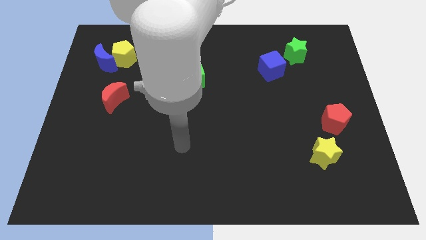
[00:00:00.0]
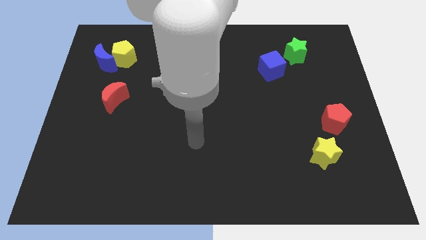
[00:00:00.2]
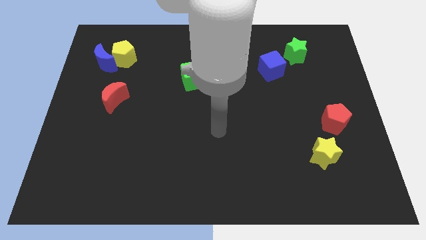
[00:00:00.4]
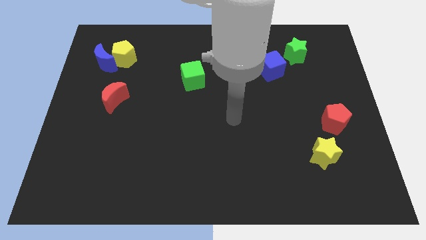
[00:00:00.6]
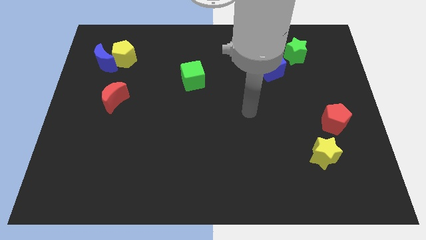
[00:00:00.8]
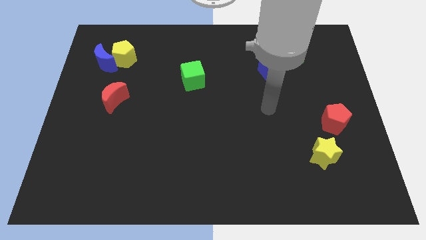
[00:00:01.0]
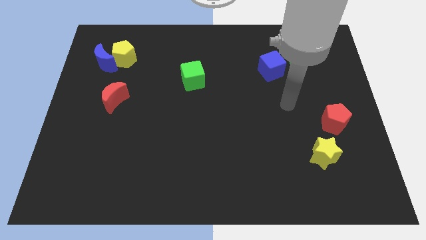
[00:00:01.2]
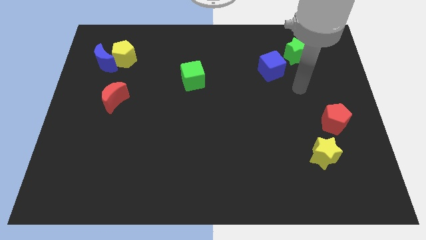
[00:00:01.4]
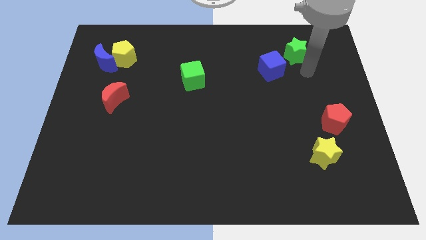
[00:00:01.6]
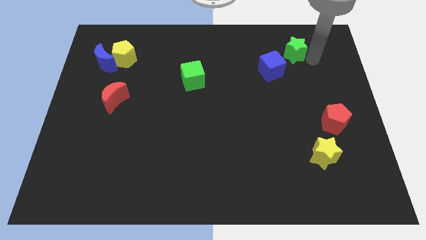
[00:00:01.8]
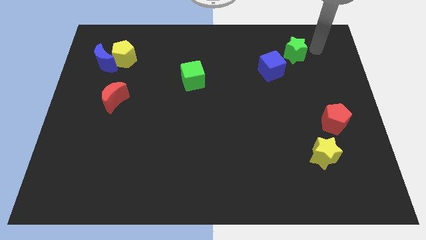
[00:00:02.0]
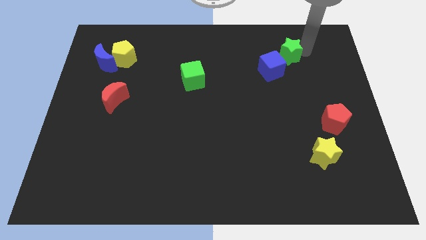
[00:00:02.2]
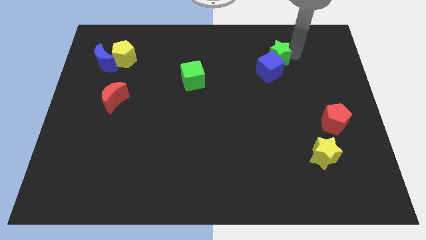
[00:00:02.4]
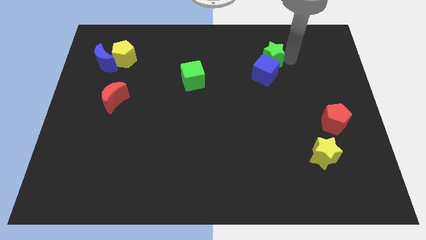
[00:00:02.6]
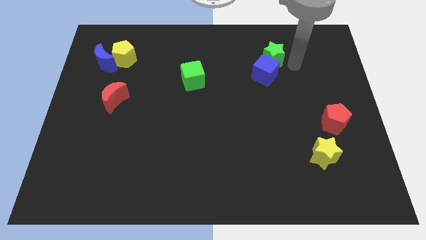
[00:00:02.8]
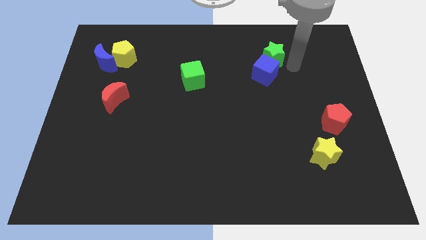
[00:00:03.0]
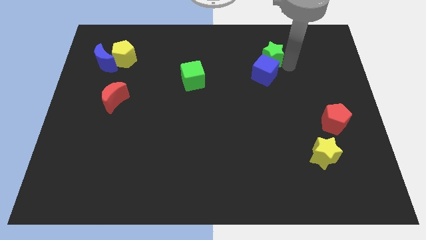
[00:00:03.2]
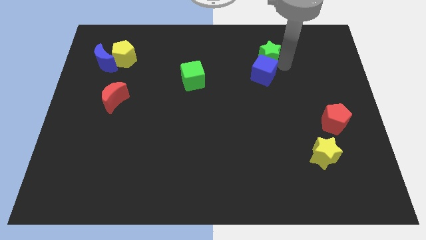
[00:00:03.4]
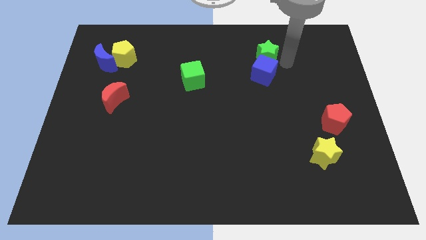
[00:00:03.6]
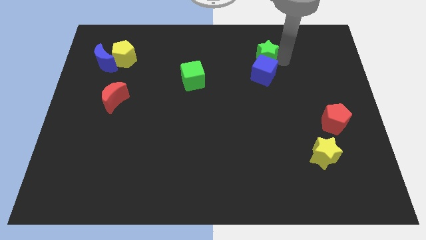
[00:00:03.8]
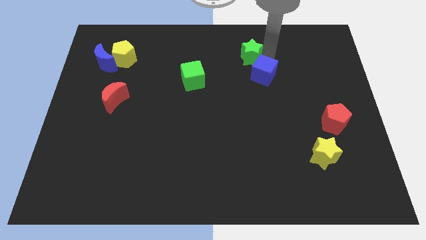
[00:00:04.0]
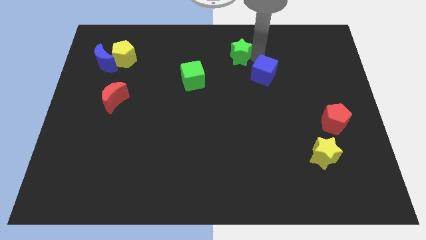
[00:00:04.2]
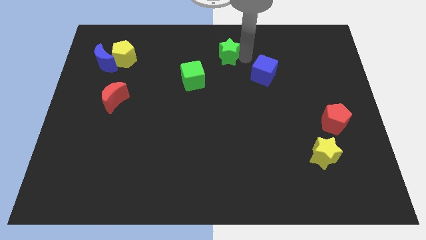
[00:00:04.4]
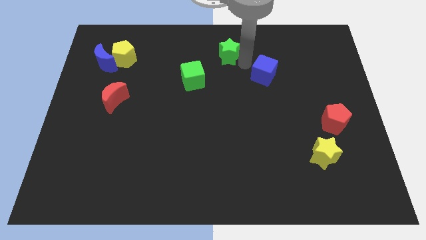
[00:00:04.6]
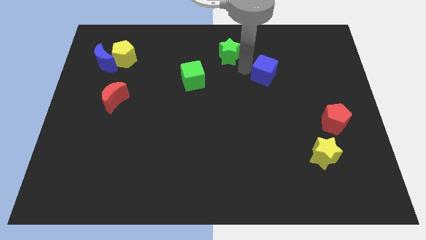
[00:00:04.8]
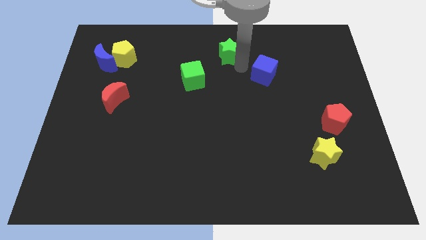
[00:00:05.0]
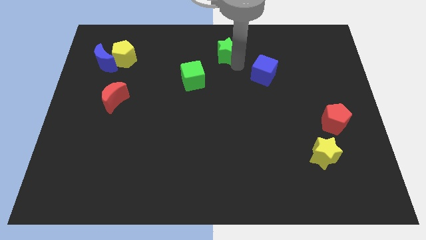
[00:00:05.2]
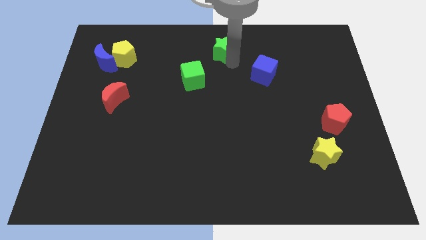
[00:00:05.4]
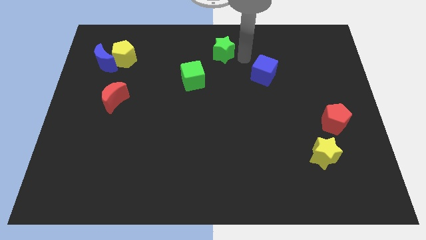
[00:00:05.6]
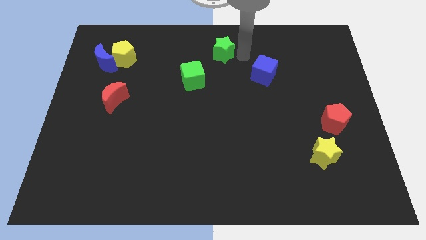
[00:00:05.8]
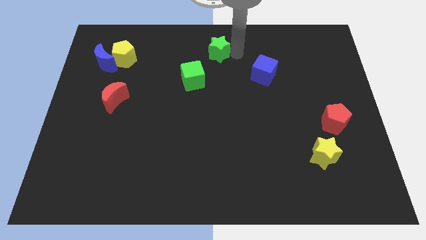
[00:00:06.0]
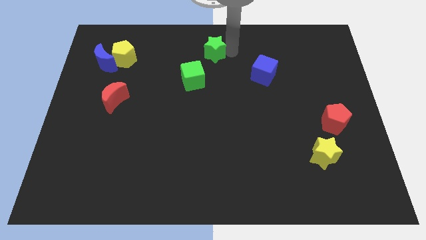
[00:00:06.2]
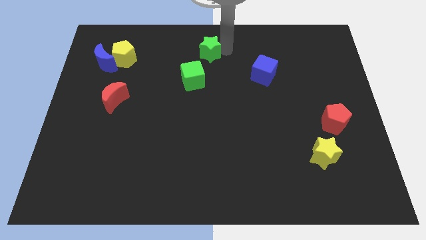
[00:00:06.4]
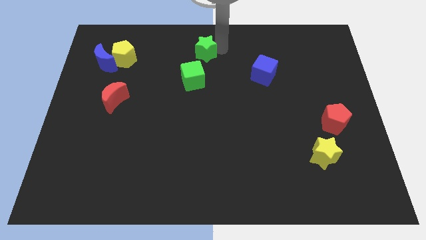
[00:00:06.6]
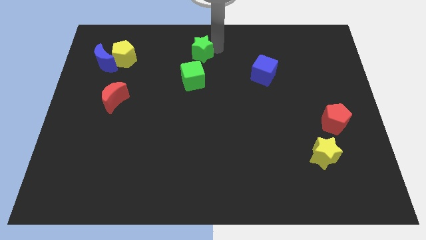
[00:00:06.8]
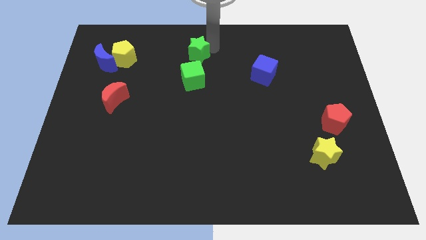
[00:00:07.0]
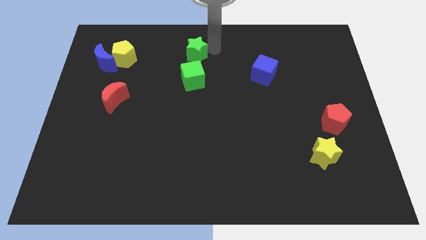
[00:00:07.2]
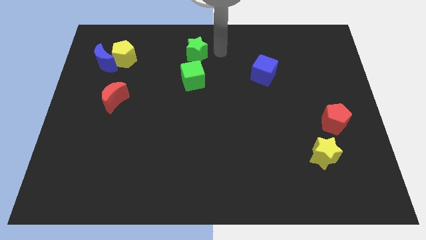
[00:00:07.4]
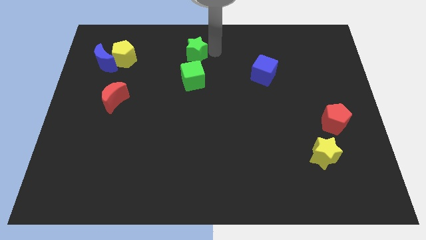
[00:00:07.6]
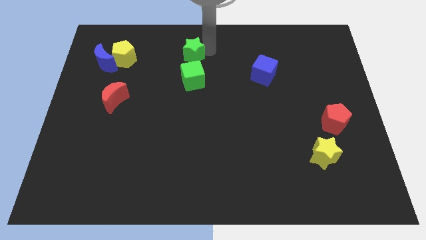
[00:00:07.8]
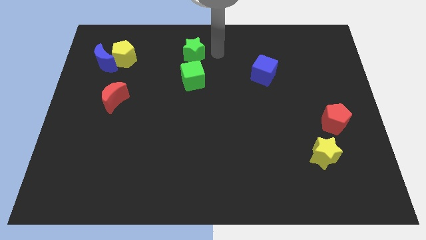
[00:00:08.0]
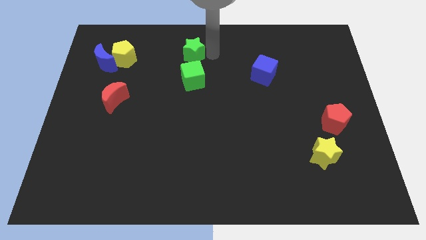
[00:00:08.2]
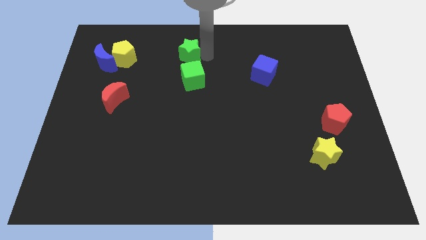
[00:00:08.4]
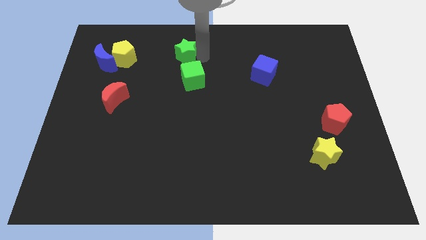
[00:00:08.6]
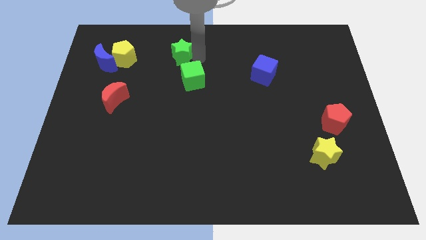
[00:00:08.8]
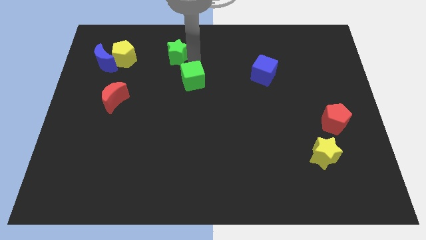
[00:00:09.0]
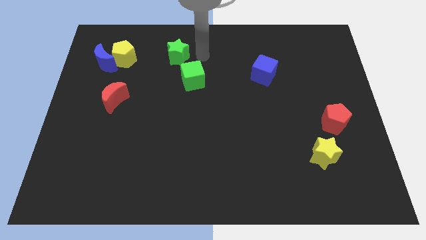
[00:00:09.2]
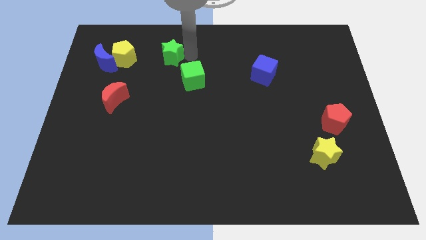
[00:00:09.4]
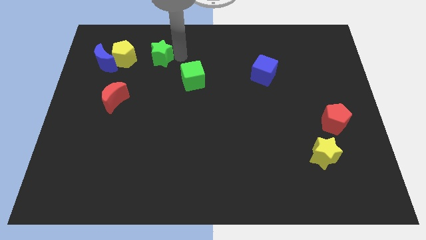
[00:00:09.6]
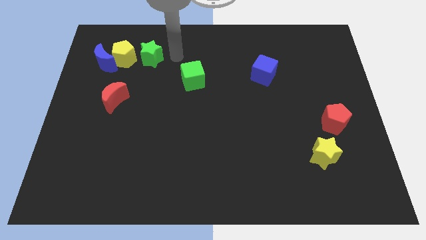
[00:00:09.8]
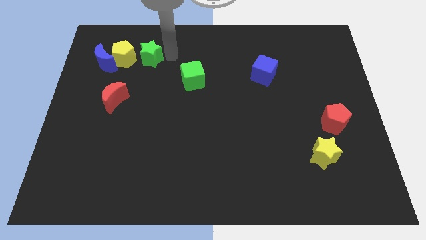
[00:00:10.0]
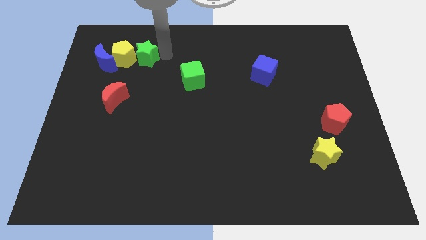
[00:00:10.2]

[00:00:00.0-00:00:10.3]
push the green star to the yellow pentagon

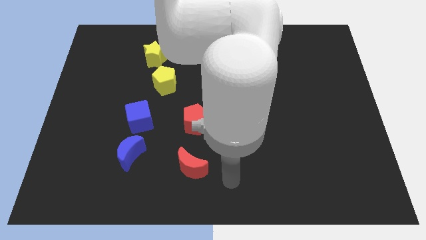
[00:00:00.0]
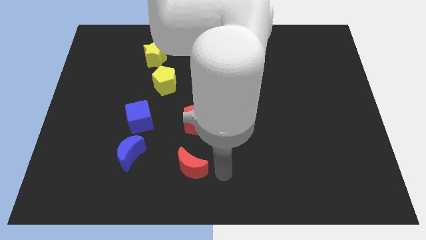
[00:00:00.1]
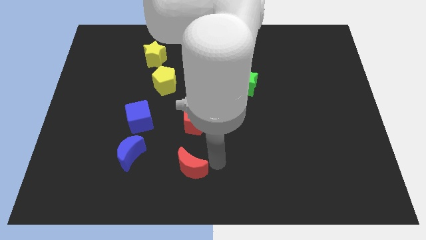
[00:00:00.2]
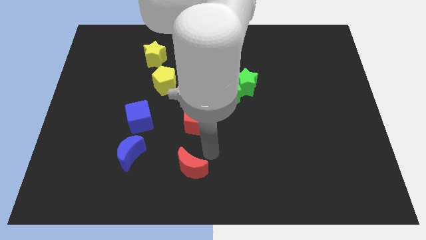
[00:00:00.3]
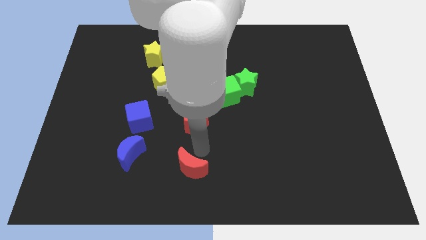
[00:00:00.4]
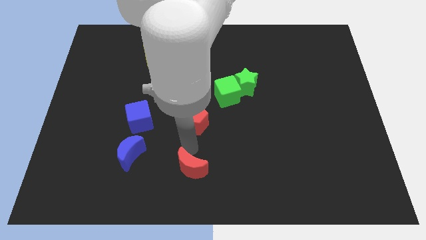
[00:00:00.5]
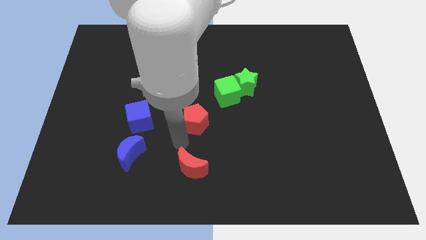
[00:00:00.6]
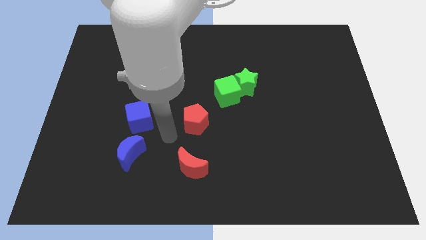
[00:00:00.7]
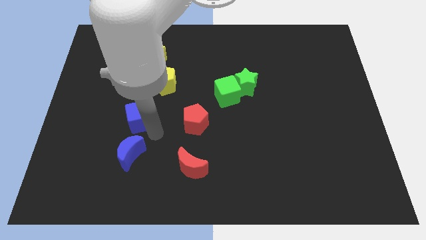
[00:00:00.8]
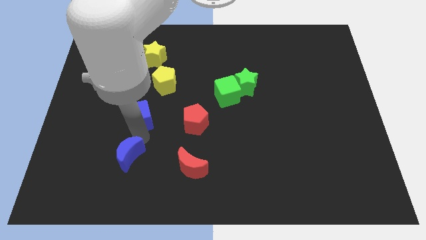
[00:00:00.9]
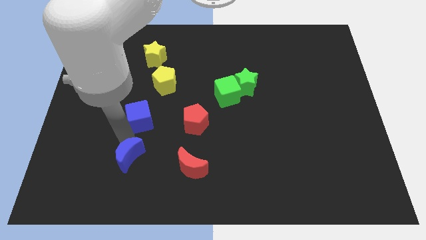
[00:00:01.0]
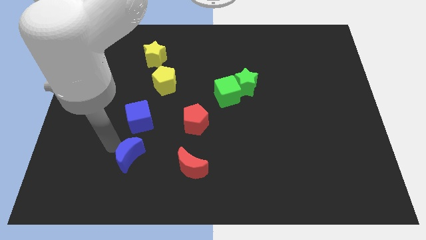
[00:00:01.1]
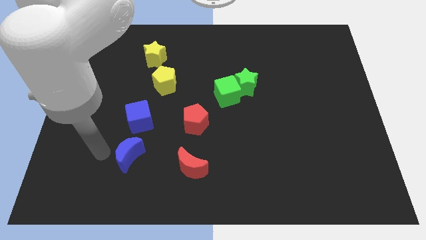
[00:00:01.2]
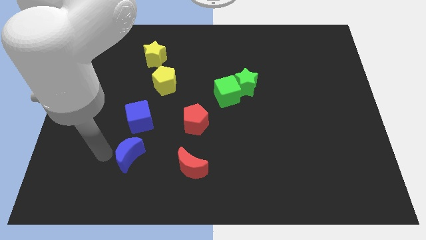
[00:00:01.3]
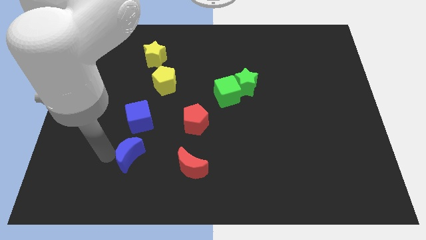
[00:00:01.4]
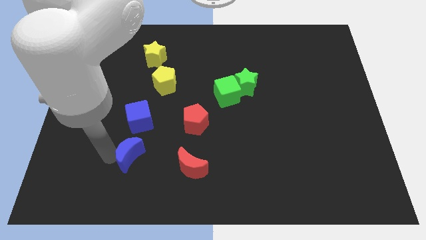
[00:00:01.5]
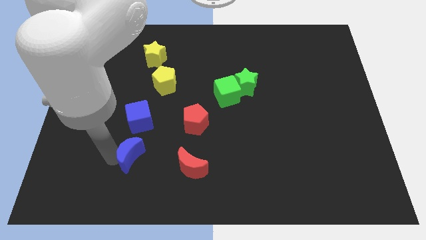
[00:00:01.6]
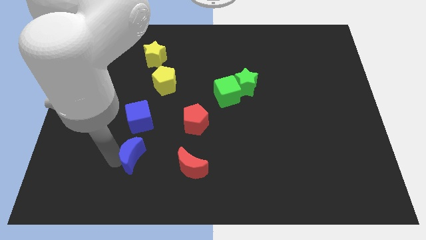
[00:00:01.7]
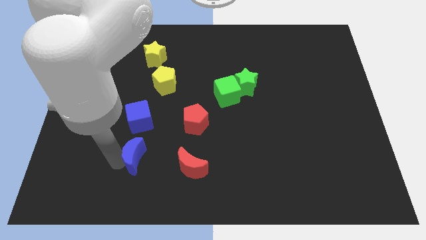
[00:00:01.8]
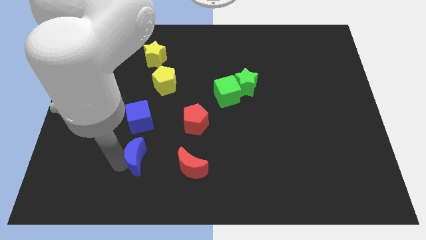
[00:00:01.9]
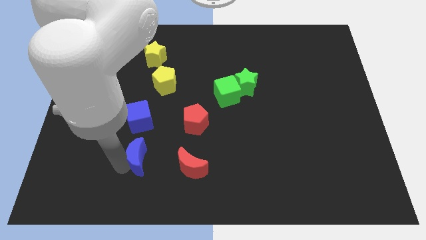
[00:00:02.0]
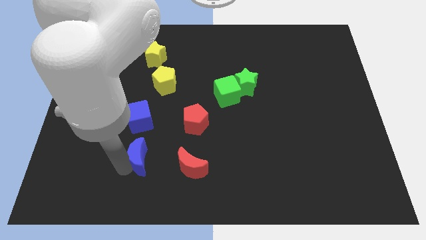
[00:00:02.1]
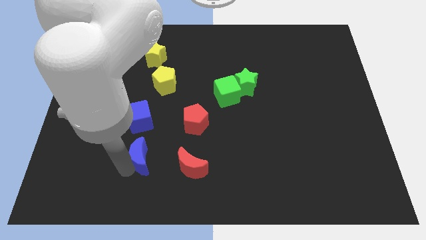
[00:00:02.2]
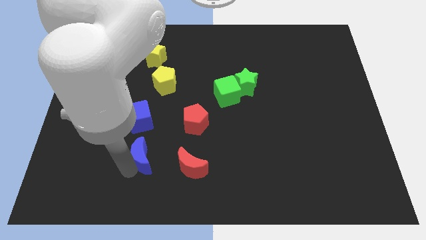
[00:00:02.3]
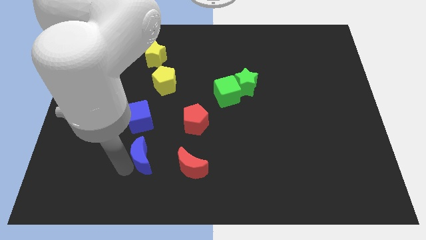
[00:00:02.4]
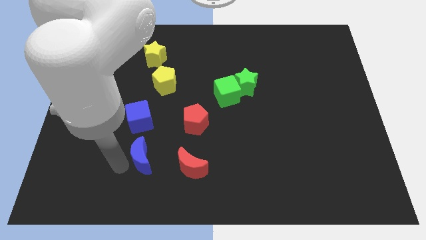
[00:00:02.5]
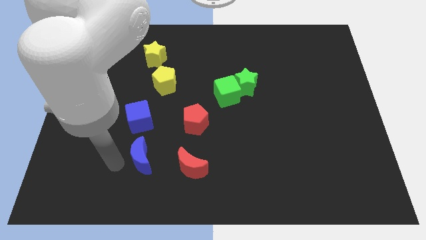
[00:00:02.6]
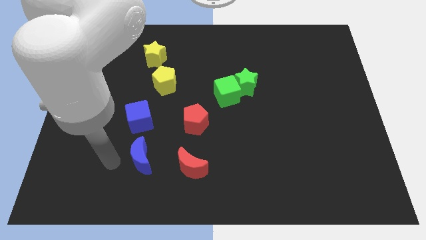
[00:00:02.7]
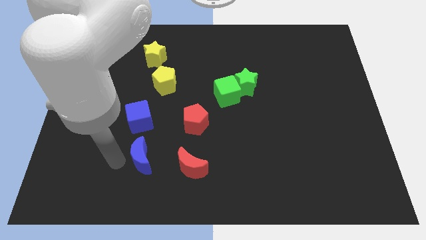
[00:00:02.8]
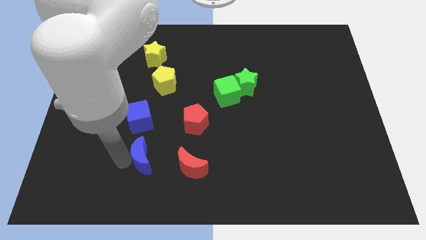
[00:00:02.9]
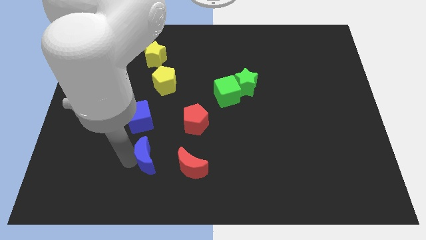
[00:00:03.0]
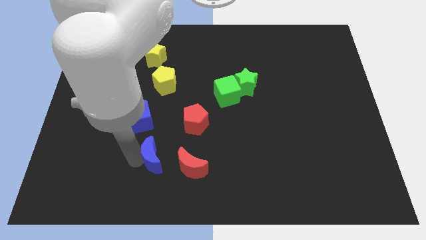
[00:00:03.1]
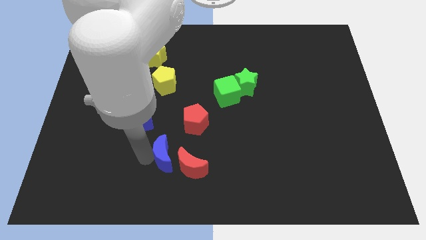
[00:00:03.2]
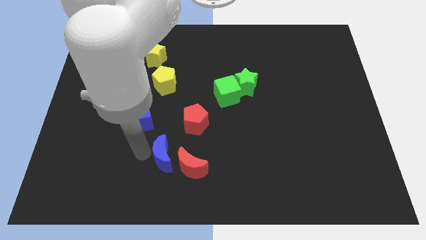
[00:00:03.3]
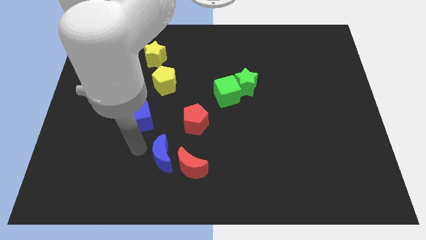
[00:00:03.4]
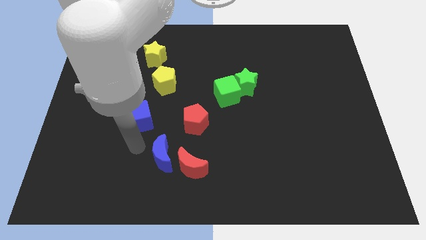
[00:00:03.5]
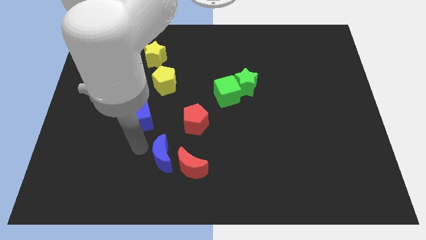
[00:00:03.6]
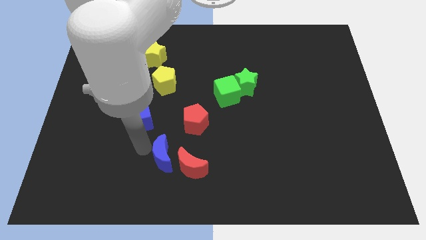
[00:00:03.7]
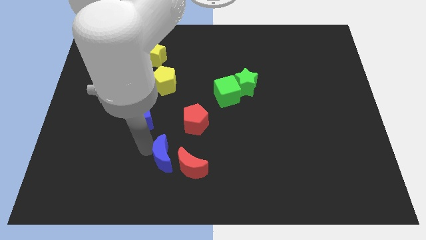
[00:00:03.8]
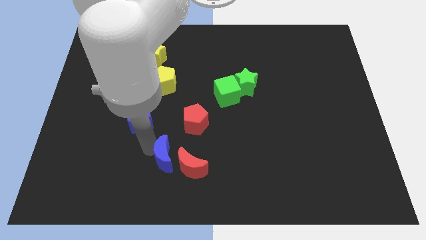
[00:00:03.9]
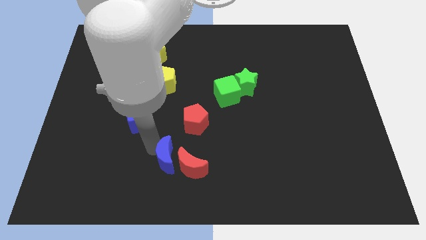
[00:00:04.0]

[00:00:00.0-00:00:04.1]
move the blue moon close to the red moon
